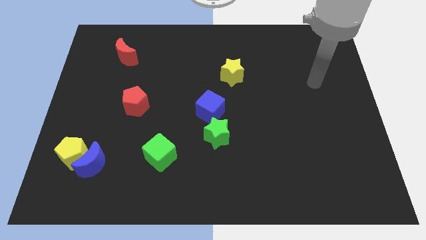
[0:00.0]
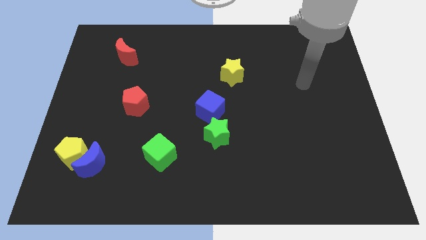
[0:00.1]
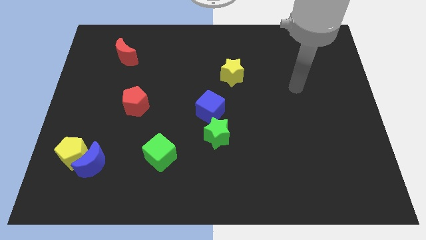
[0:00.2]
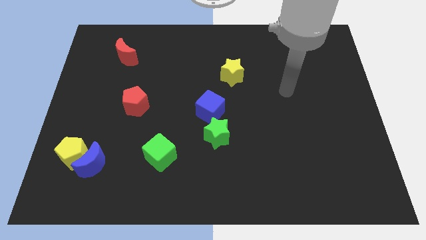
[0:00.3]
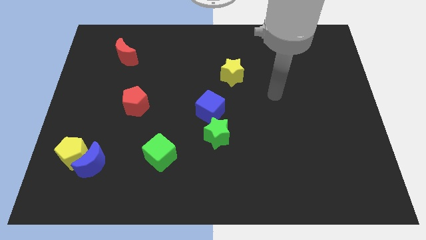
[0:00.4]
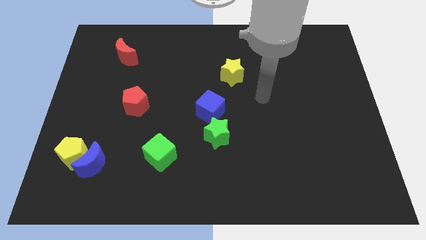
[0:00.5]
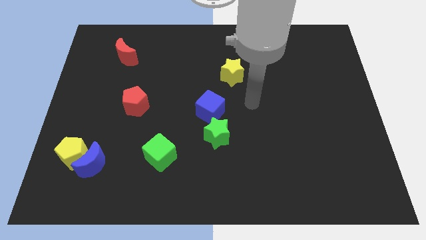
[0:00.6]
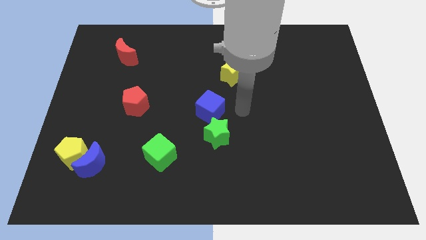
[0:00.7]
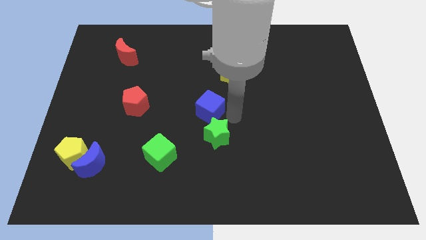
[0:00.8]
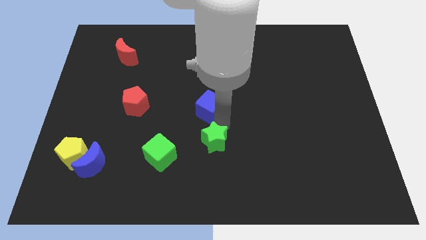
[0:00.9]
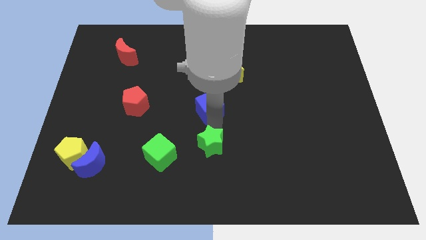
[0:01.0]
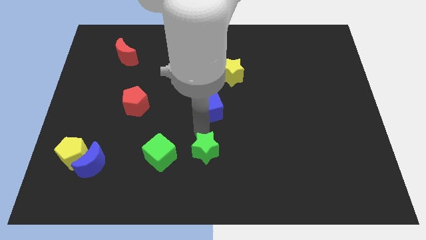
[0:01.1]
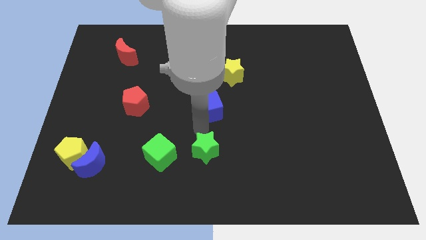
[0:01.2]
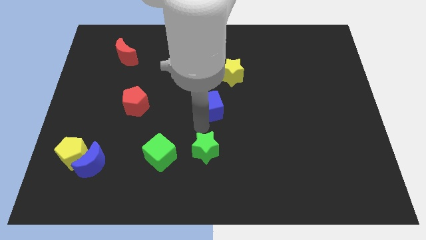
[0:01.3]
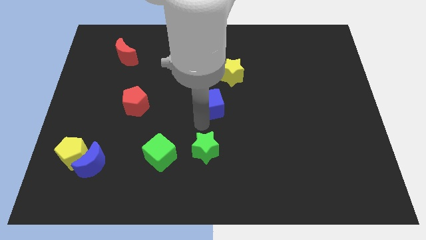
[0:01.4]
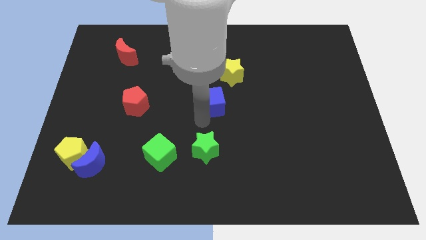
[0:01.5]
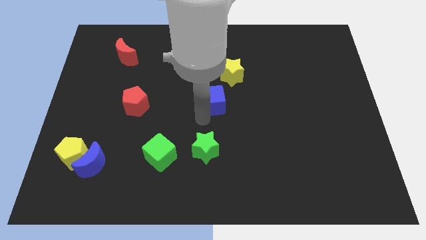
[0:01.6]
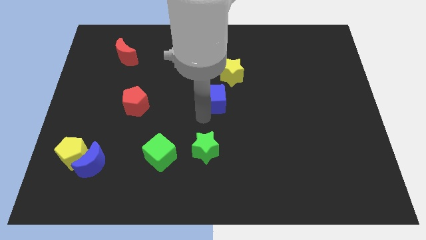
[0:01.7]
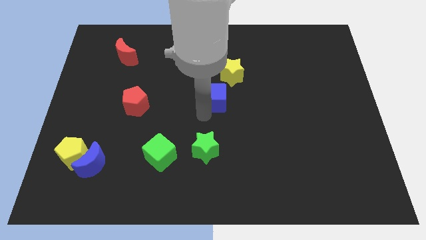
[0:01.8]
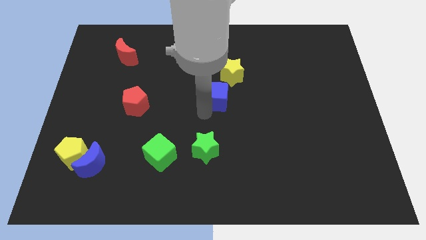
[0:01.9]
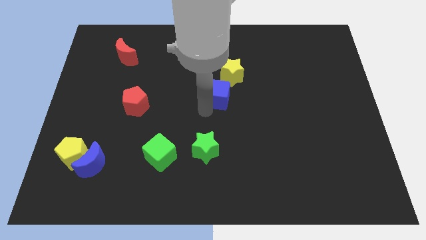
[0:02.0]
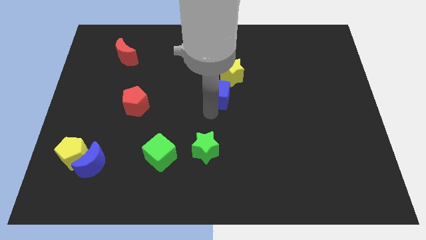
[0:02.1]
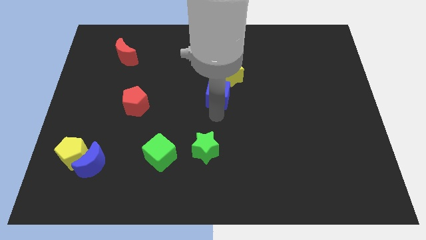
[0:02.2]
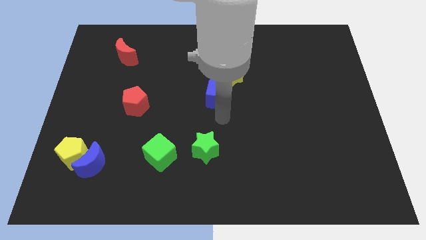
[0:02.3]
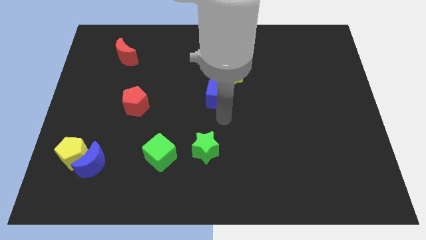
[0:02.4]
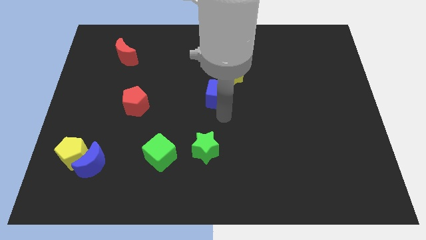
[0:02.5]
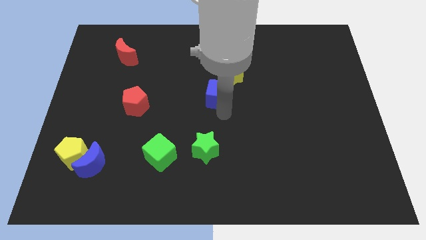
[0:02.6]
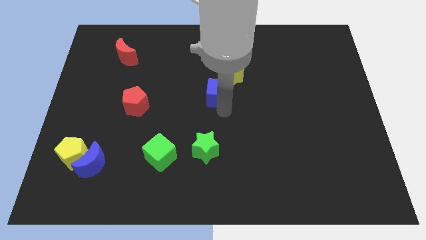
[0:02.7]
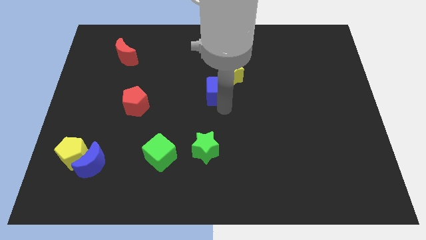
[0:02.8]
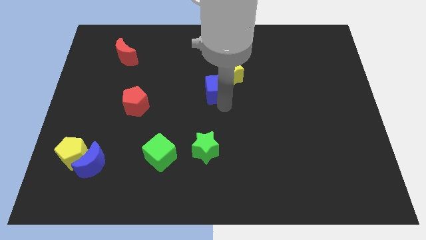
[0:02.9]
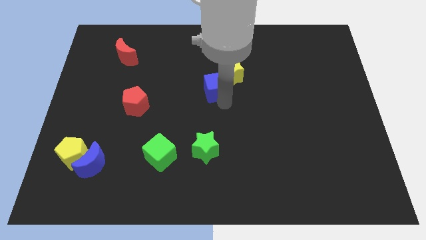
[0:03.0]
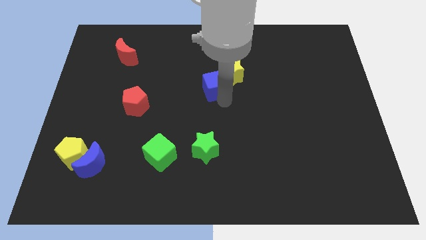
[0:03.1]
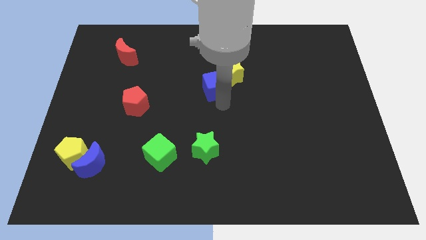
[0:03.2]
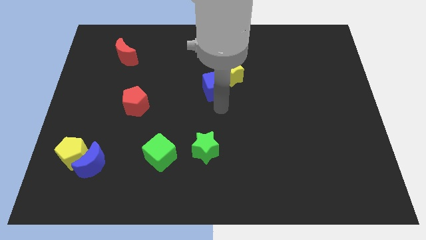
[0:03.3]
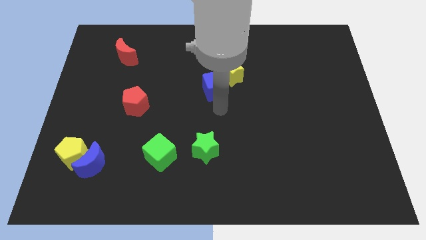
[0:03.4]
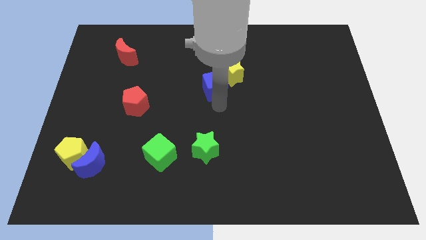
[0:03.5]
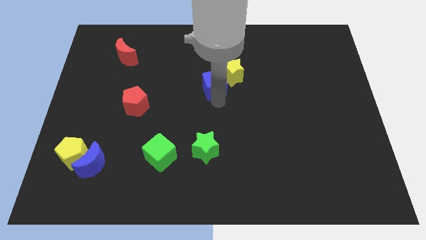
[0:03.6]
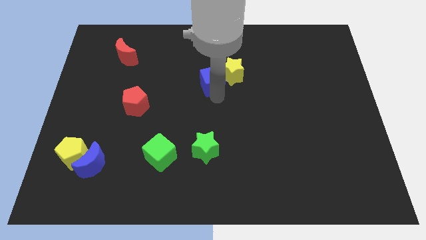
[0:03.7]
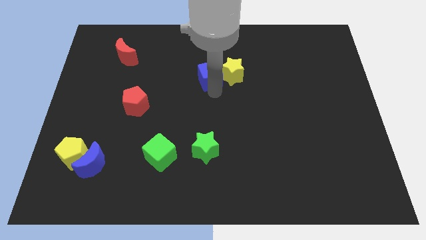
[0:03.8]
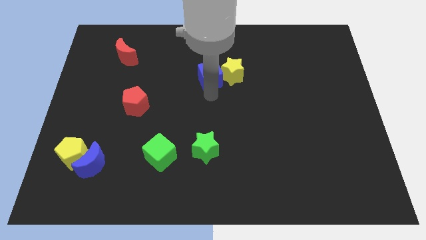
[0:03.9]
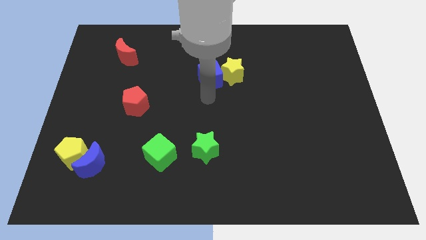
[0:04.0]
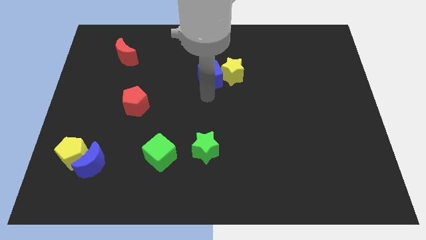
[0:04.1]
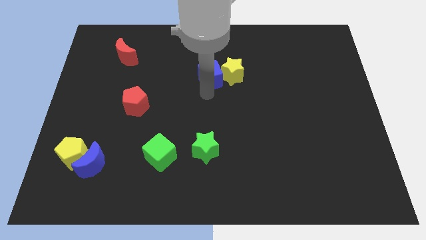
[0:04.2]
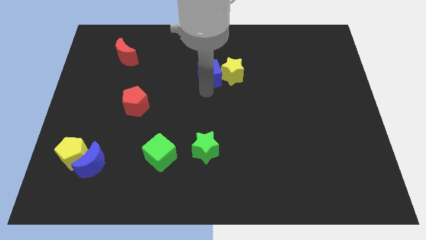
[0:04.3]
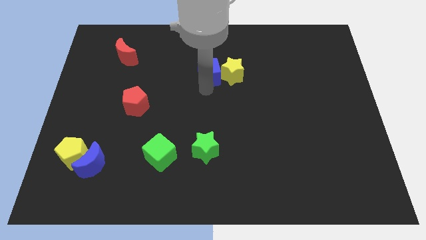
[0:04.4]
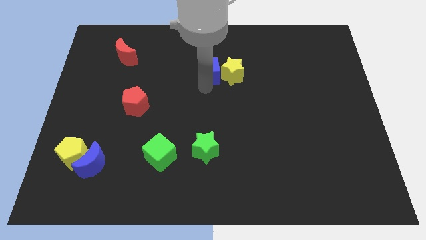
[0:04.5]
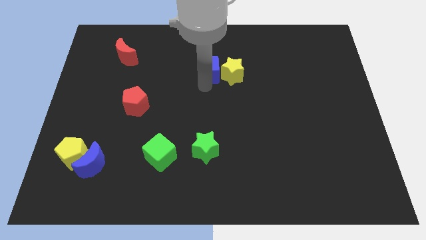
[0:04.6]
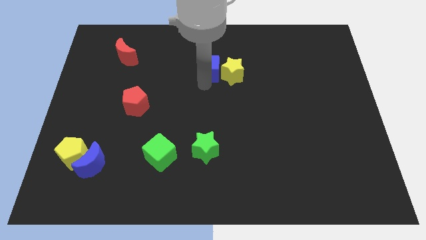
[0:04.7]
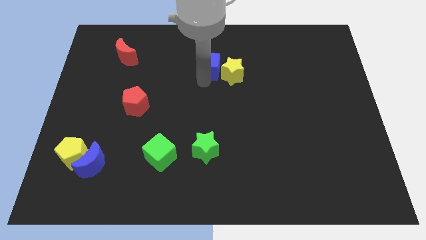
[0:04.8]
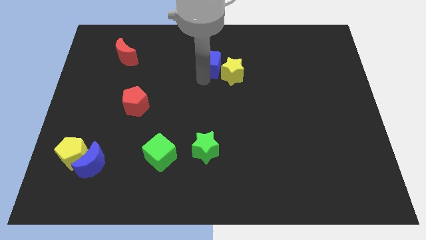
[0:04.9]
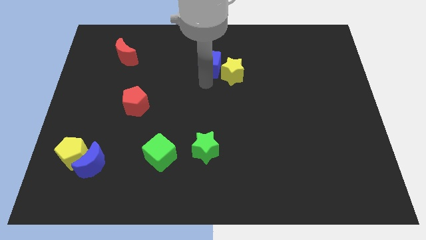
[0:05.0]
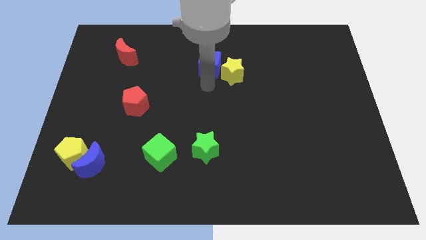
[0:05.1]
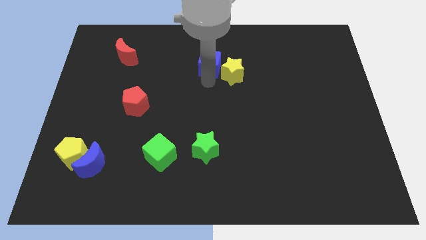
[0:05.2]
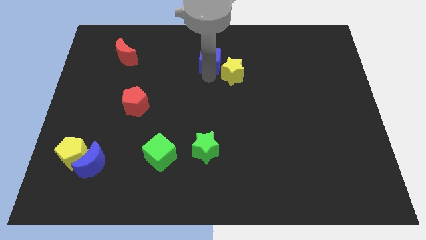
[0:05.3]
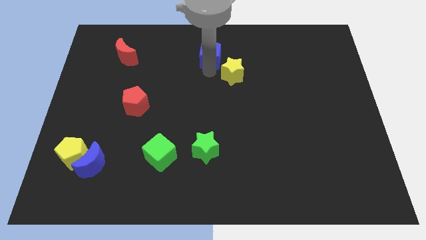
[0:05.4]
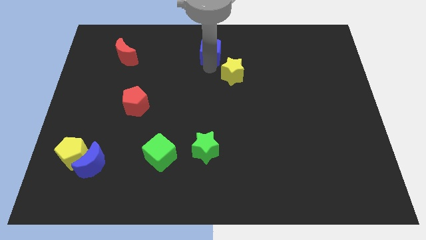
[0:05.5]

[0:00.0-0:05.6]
push the blue cube to the top

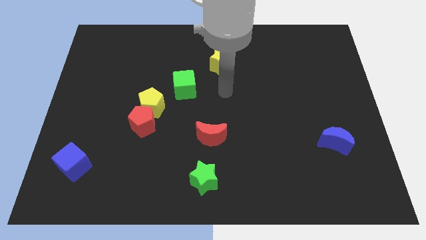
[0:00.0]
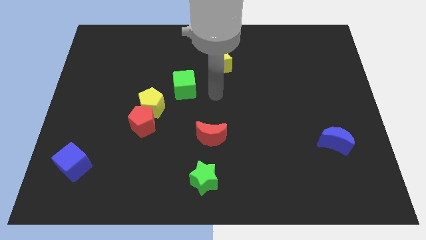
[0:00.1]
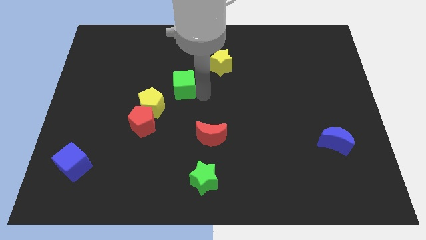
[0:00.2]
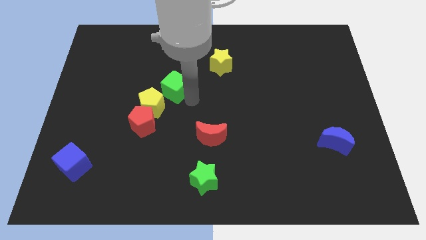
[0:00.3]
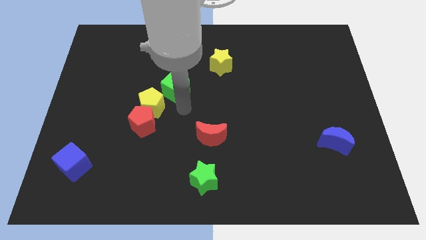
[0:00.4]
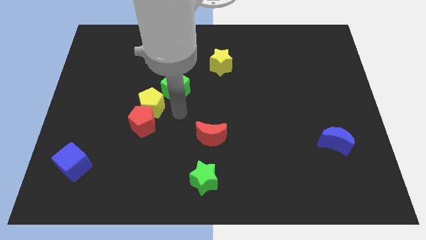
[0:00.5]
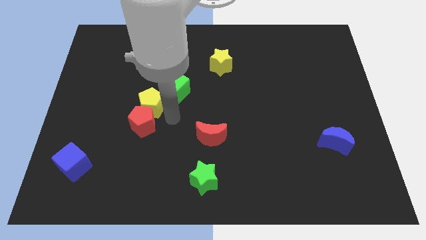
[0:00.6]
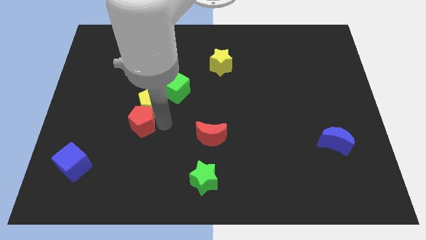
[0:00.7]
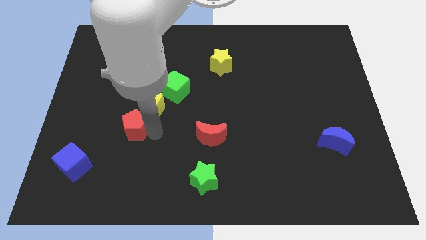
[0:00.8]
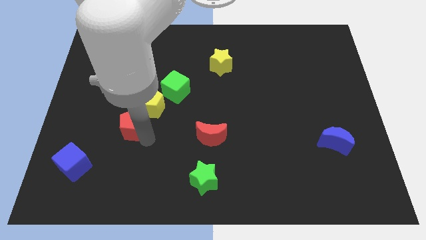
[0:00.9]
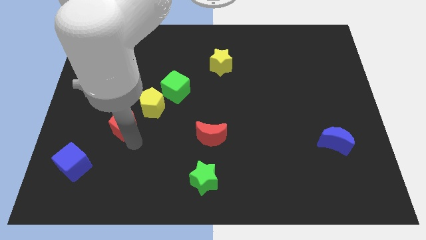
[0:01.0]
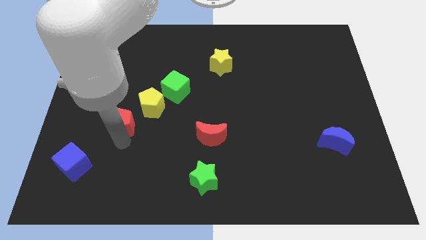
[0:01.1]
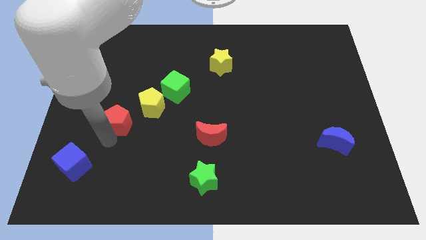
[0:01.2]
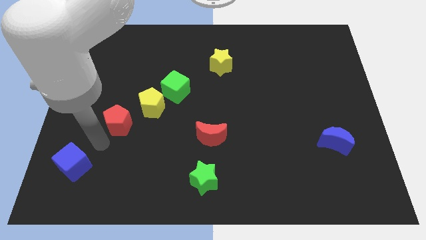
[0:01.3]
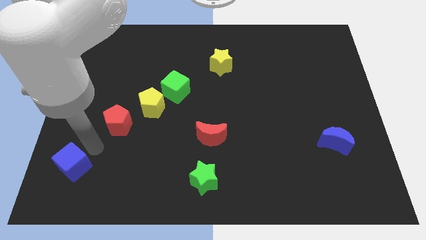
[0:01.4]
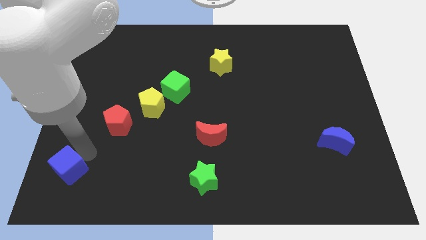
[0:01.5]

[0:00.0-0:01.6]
move the blue cube to the bottom left

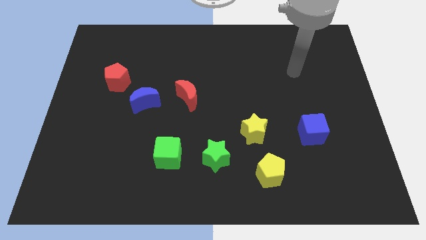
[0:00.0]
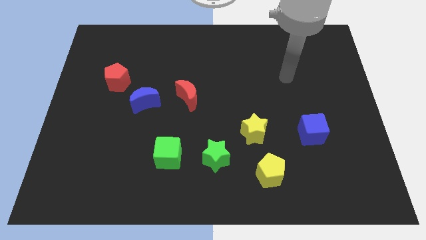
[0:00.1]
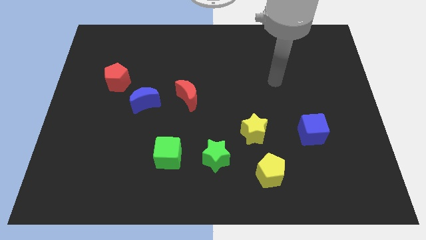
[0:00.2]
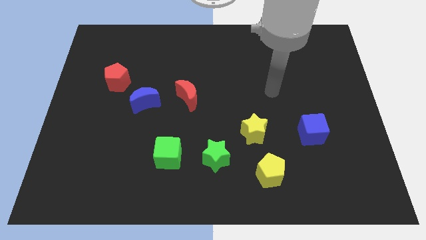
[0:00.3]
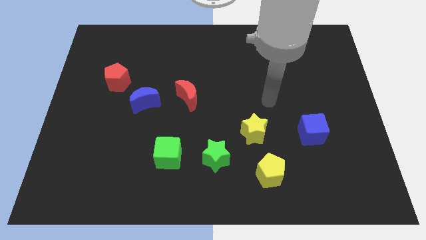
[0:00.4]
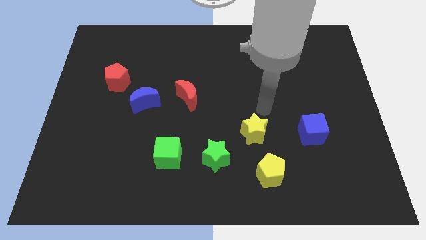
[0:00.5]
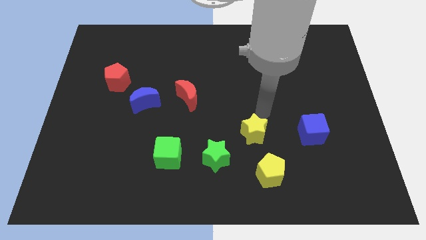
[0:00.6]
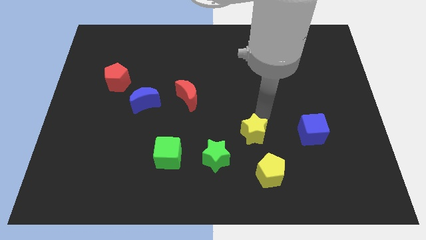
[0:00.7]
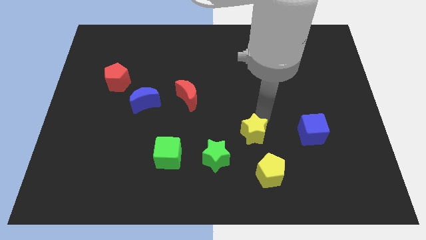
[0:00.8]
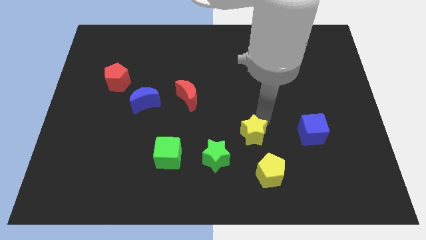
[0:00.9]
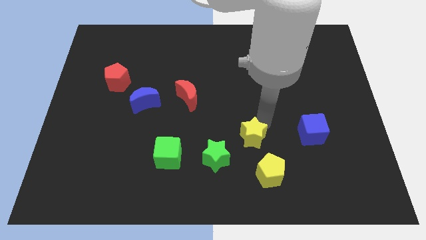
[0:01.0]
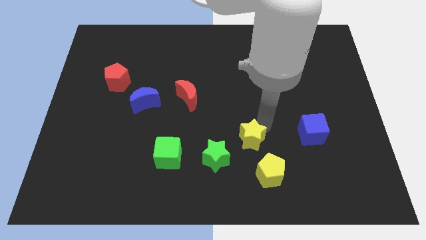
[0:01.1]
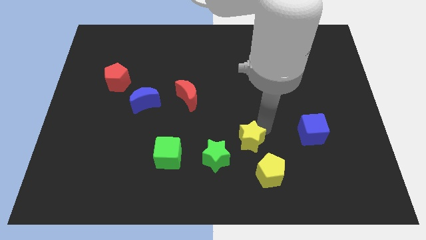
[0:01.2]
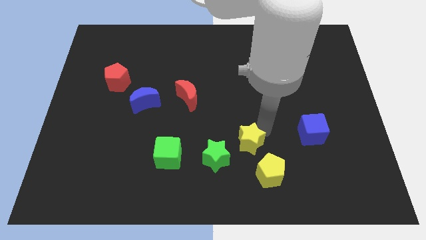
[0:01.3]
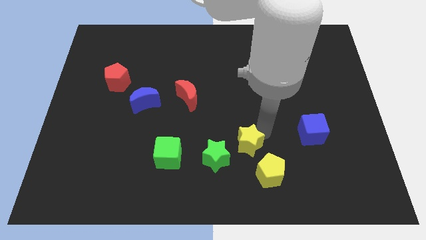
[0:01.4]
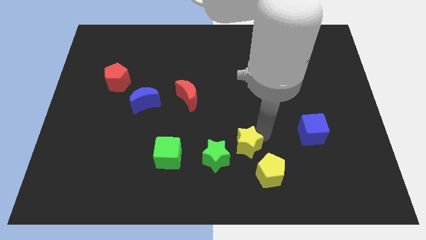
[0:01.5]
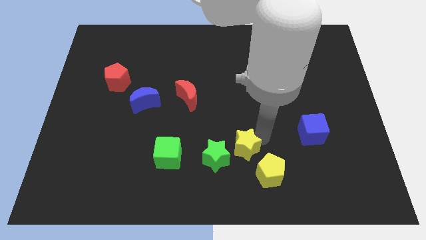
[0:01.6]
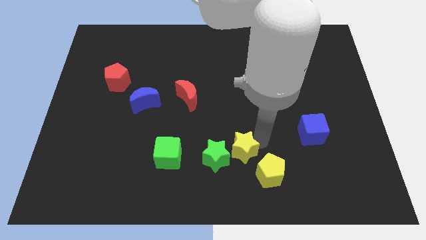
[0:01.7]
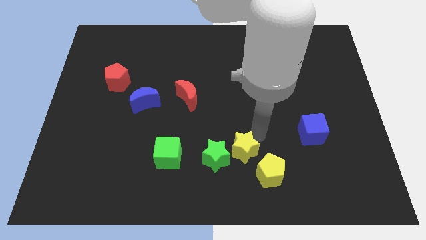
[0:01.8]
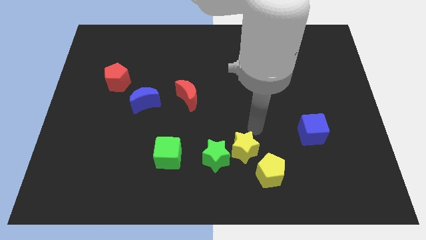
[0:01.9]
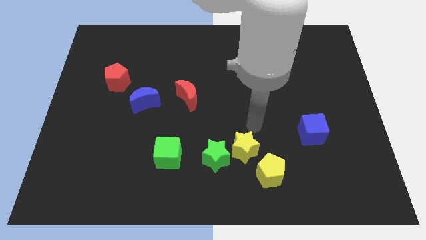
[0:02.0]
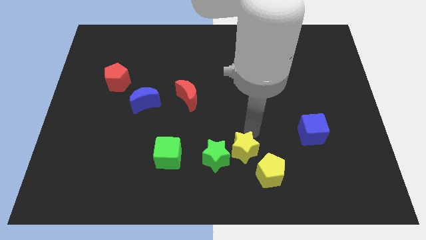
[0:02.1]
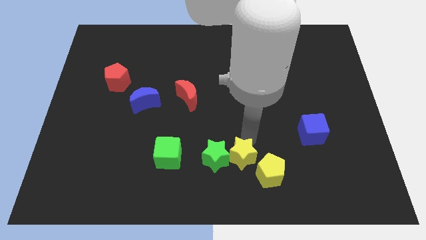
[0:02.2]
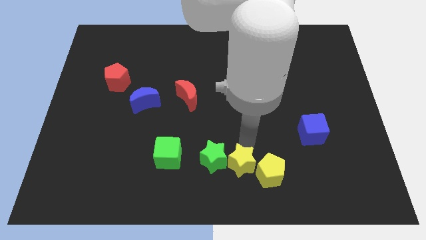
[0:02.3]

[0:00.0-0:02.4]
push the yellow star to the bottom side
